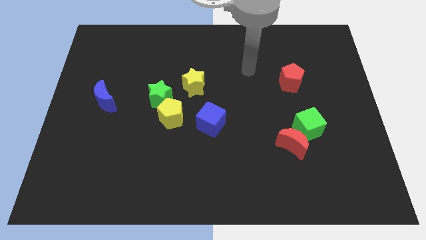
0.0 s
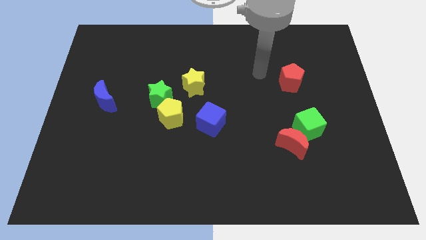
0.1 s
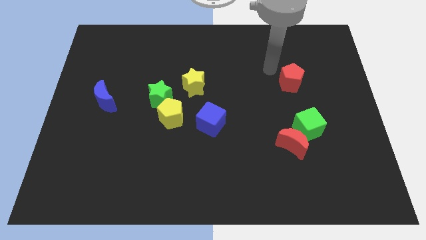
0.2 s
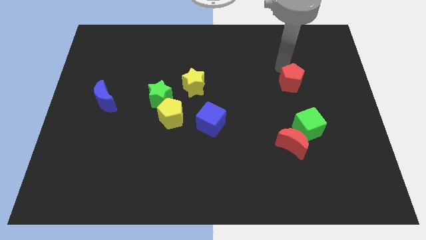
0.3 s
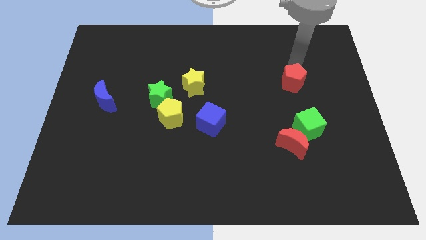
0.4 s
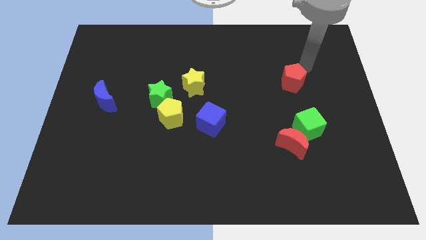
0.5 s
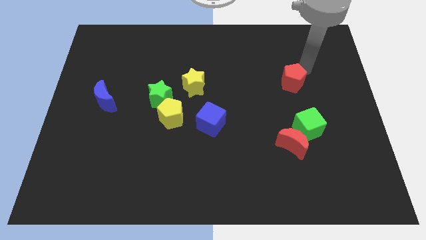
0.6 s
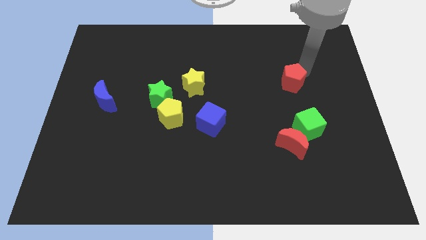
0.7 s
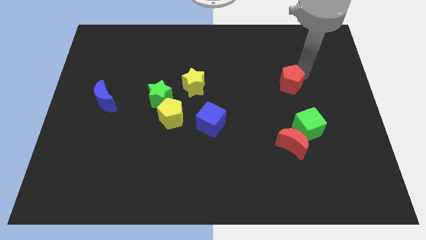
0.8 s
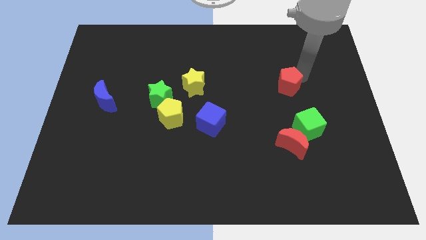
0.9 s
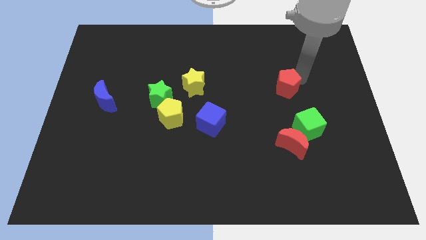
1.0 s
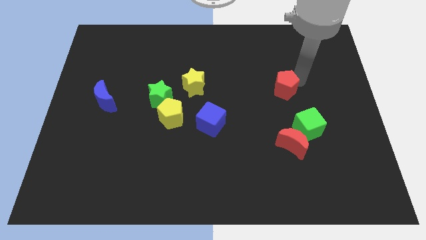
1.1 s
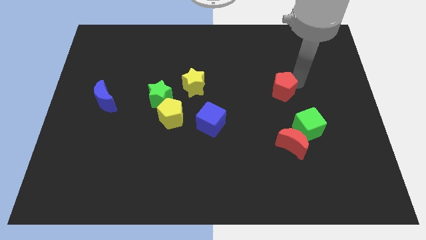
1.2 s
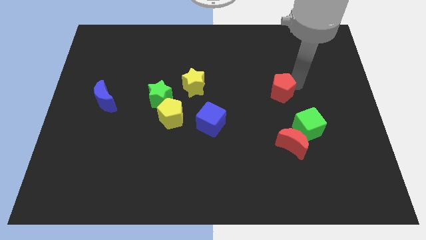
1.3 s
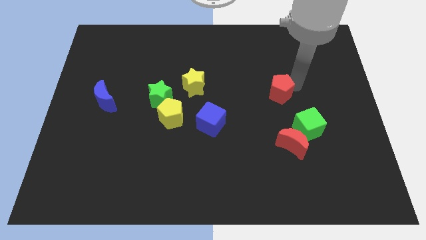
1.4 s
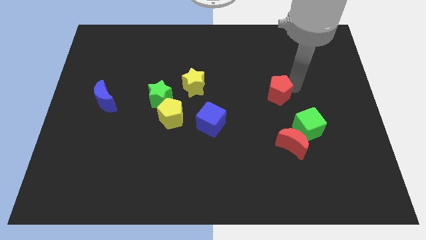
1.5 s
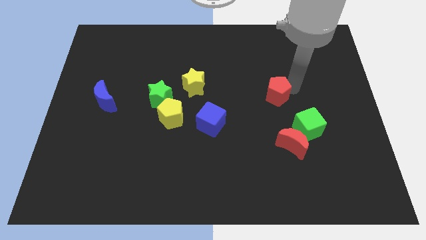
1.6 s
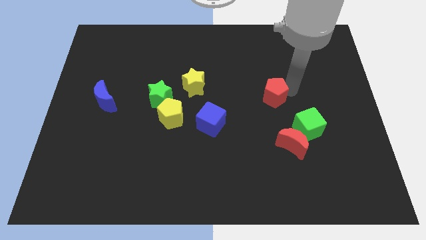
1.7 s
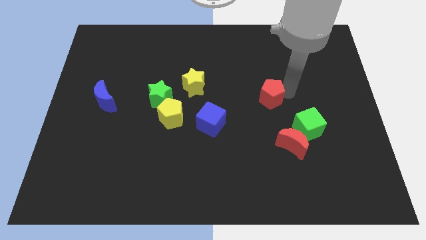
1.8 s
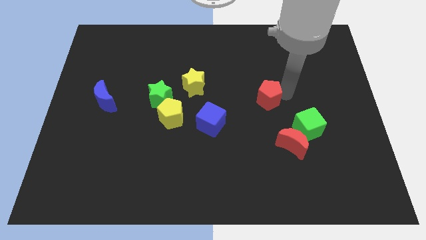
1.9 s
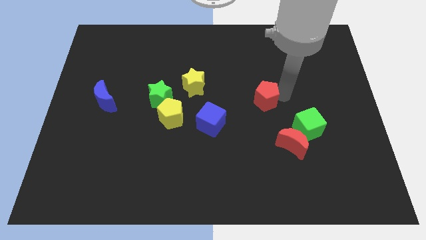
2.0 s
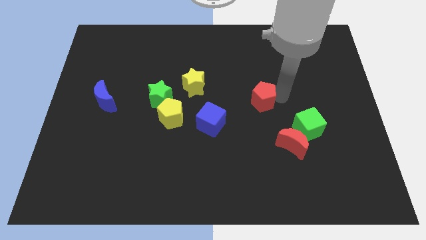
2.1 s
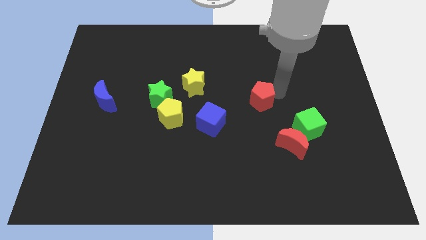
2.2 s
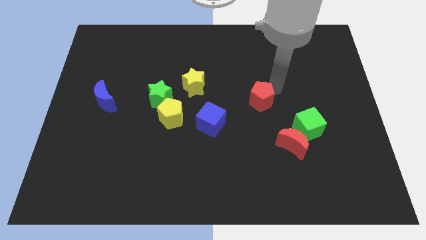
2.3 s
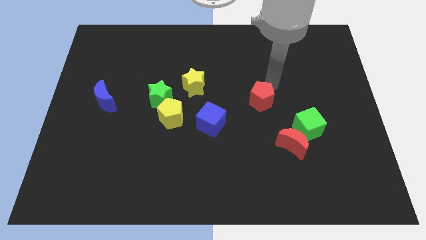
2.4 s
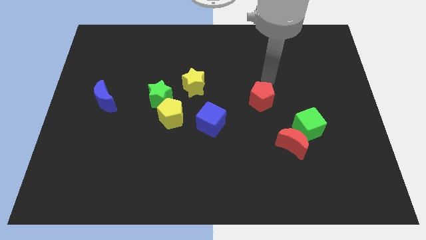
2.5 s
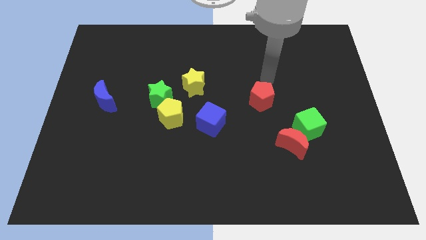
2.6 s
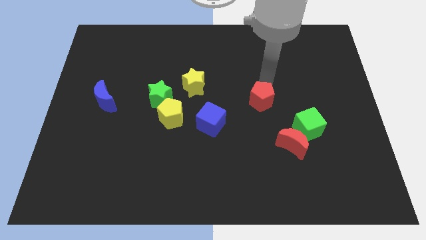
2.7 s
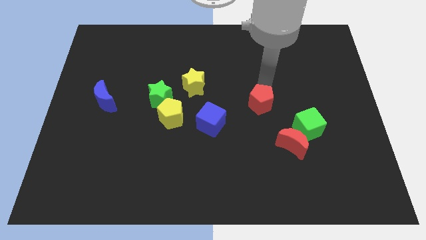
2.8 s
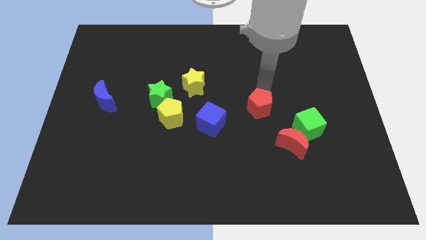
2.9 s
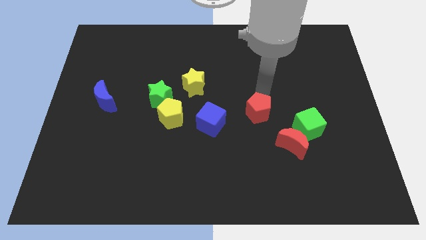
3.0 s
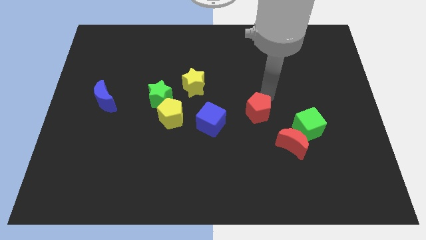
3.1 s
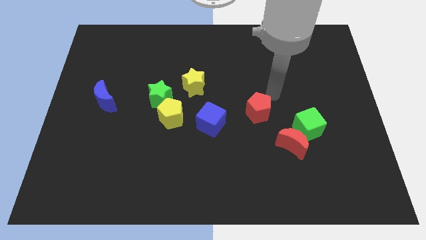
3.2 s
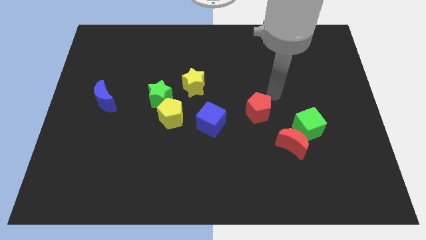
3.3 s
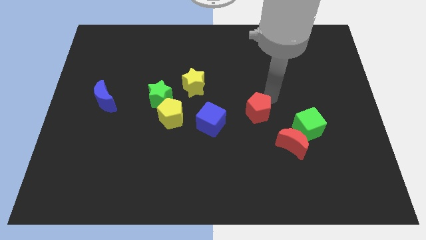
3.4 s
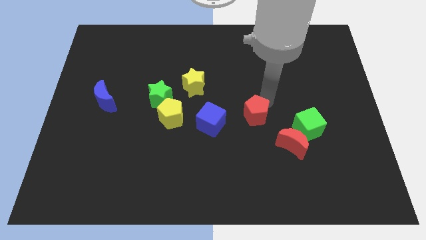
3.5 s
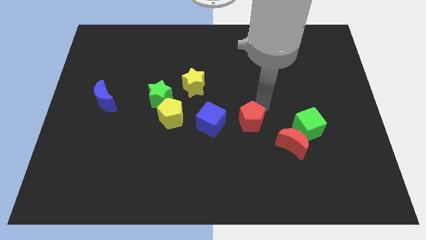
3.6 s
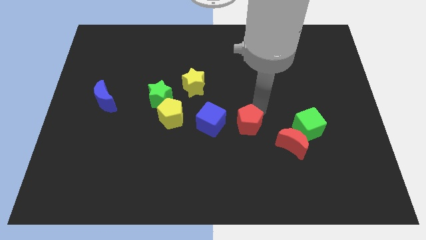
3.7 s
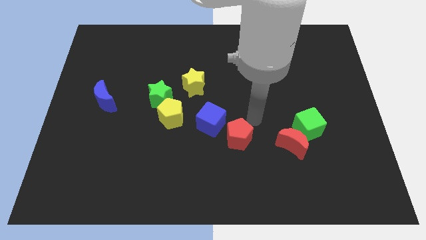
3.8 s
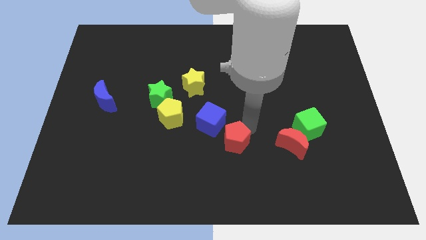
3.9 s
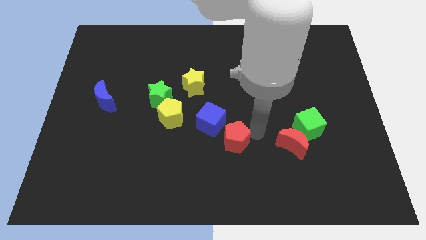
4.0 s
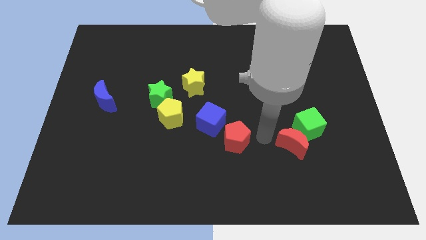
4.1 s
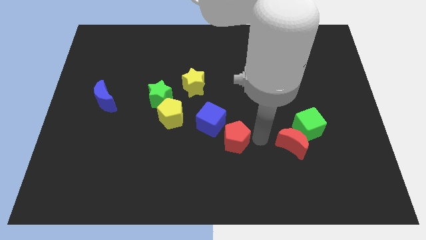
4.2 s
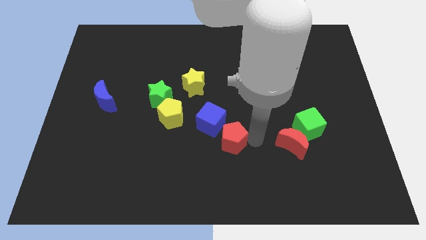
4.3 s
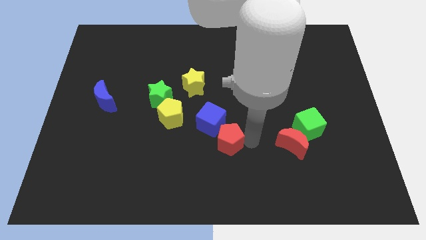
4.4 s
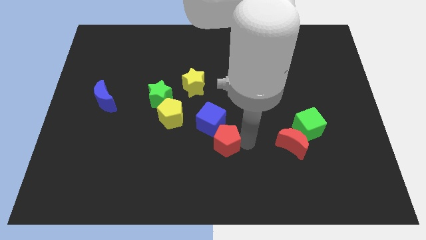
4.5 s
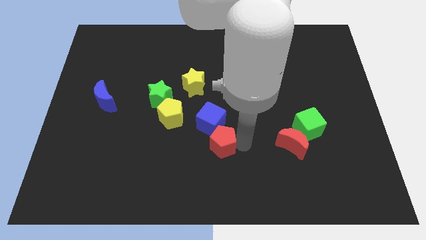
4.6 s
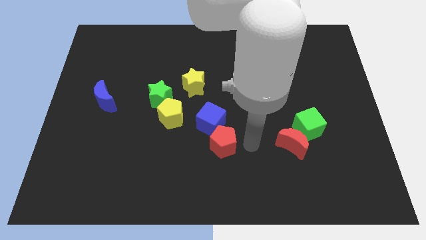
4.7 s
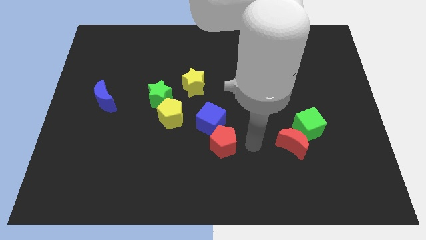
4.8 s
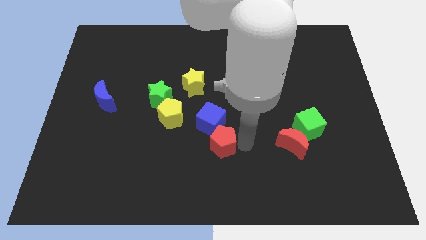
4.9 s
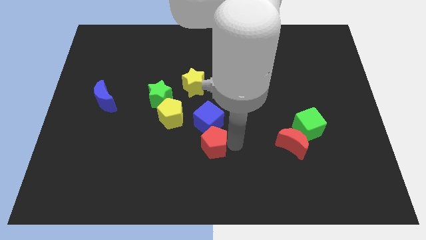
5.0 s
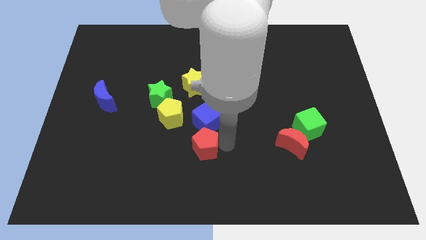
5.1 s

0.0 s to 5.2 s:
move the red pentagon to the bottom left of the blue cube

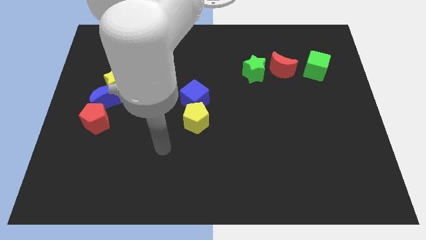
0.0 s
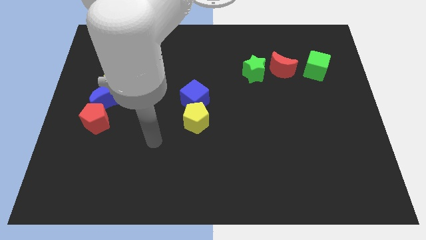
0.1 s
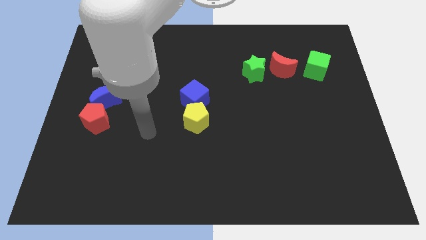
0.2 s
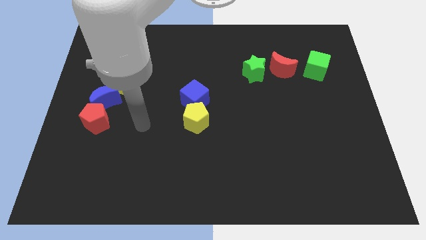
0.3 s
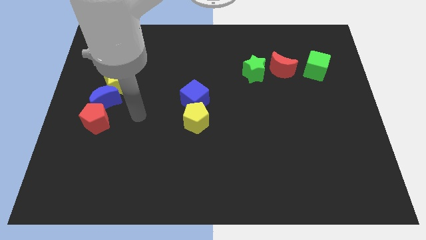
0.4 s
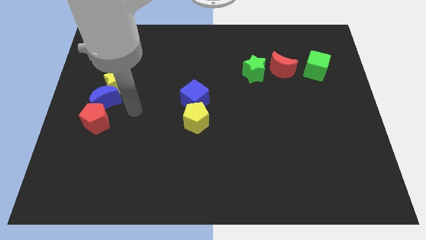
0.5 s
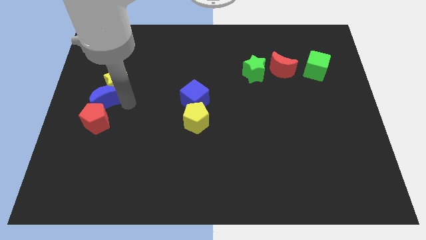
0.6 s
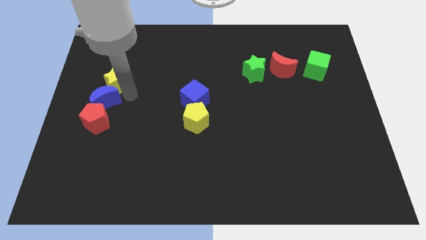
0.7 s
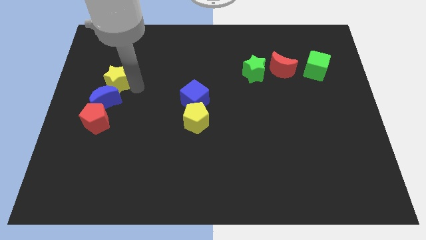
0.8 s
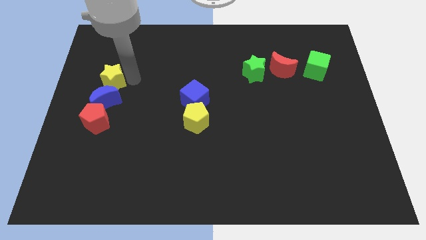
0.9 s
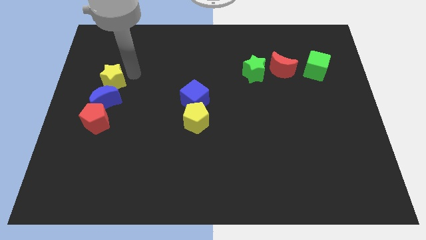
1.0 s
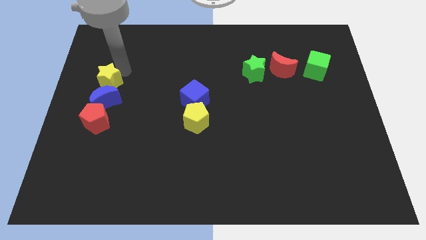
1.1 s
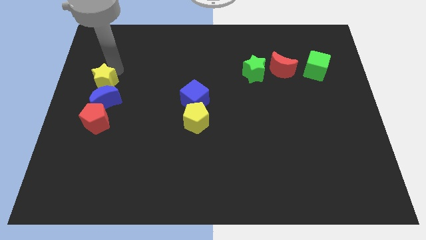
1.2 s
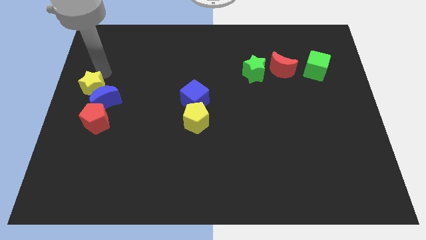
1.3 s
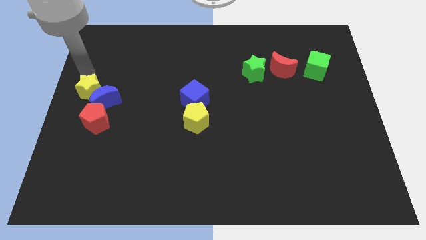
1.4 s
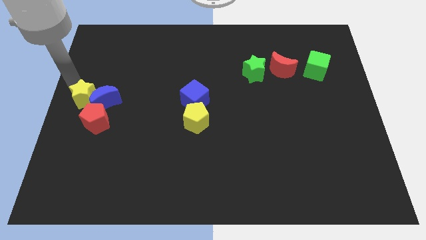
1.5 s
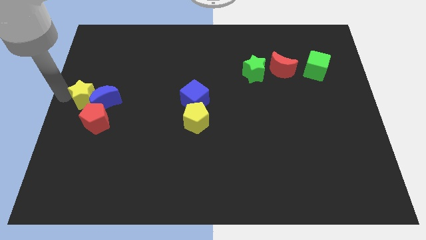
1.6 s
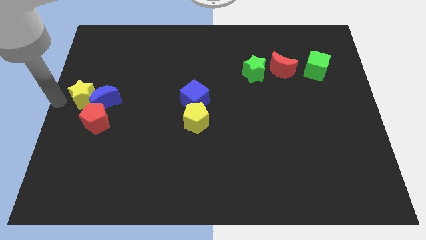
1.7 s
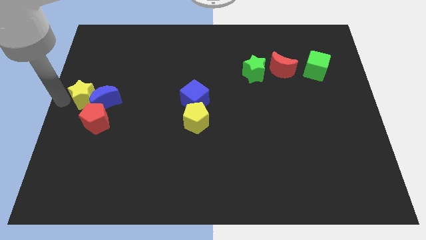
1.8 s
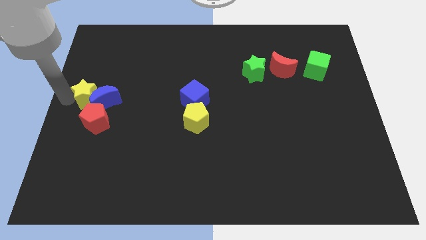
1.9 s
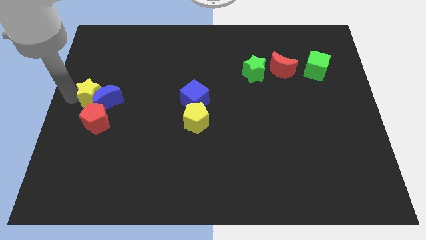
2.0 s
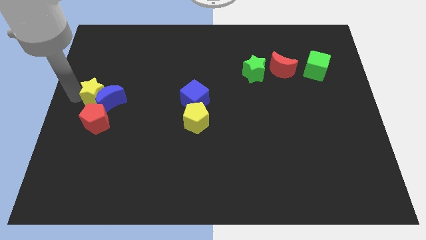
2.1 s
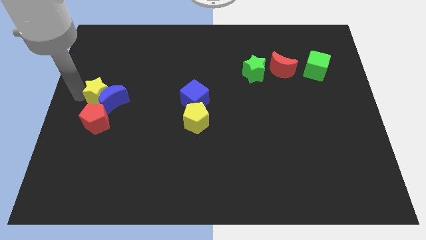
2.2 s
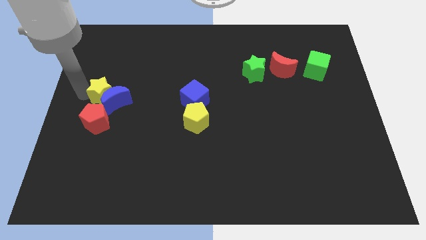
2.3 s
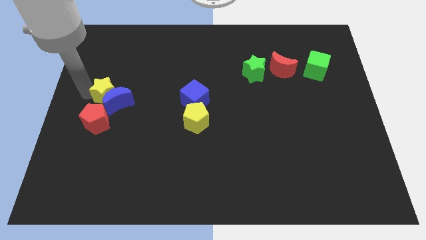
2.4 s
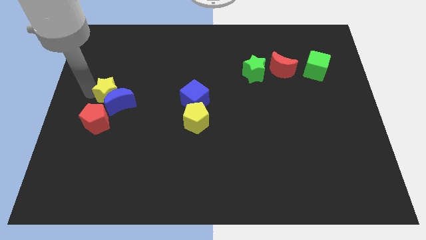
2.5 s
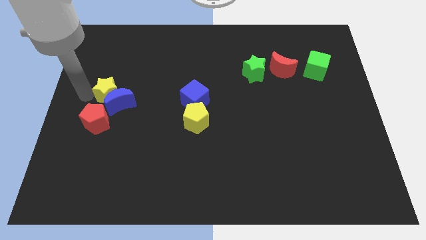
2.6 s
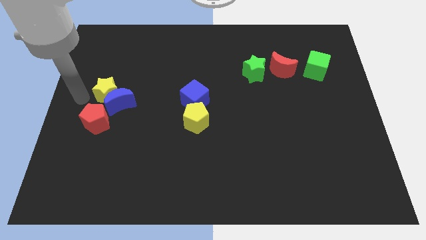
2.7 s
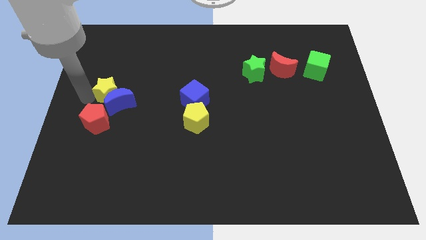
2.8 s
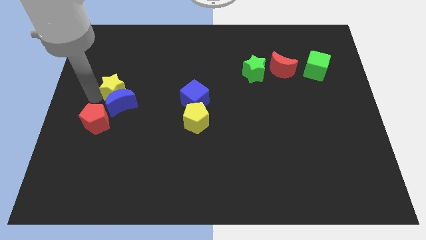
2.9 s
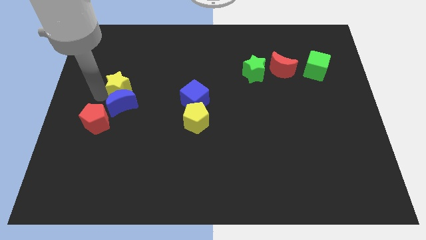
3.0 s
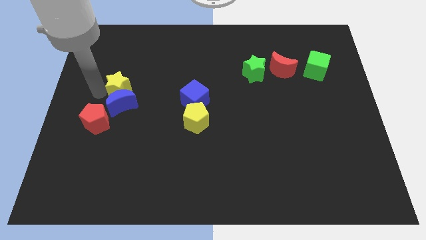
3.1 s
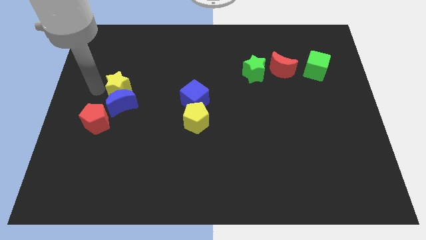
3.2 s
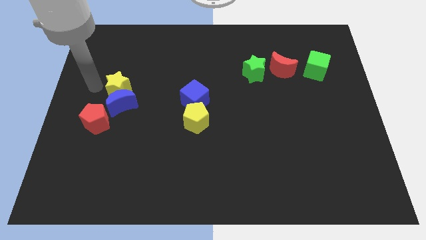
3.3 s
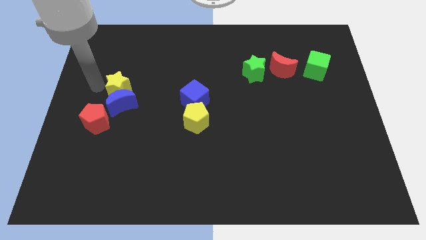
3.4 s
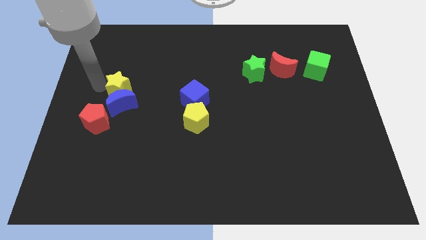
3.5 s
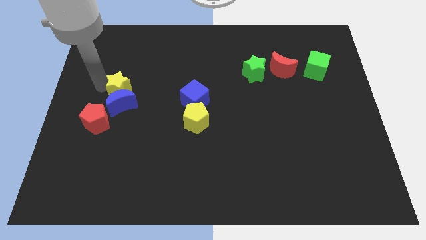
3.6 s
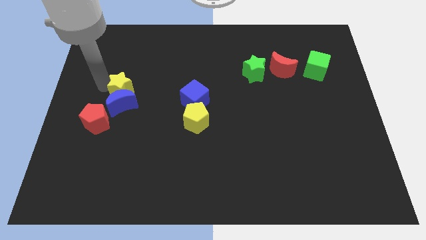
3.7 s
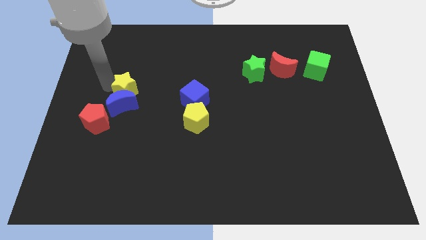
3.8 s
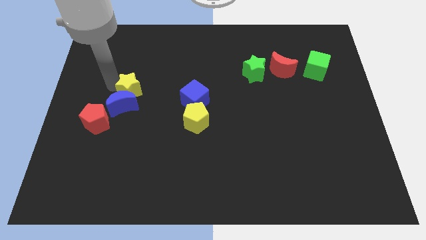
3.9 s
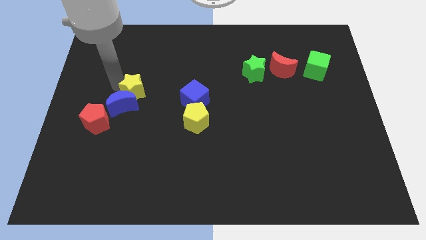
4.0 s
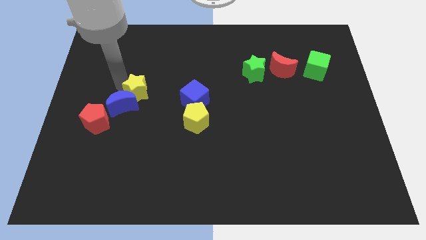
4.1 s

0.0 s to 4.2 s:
move the yellow star just right of the blue moon
